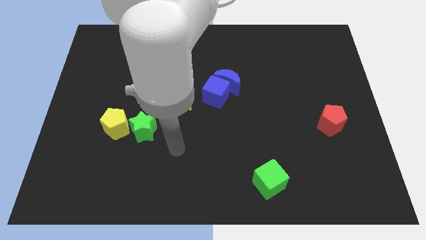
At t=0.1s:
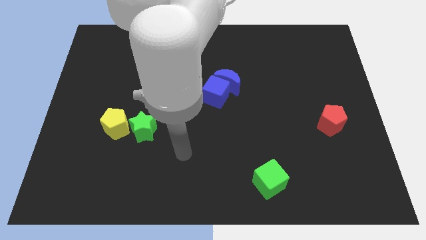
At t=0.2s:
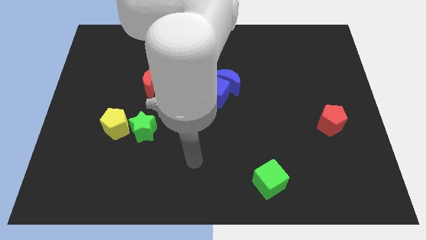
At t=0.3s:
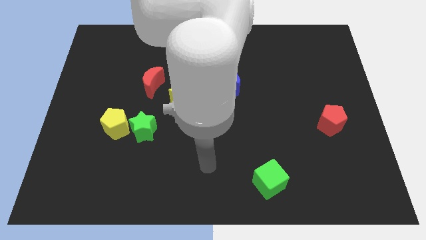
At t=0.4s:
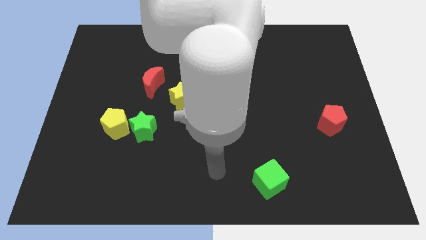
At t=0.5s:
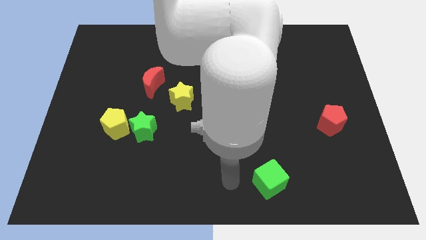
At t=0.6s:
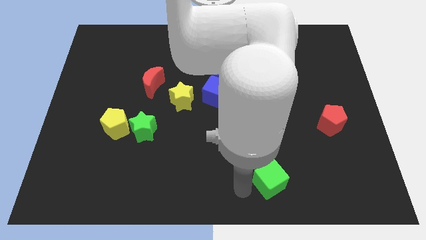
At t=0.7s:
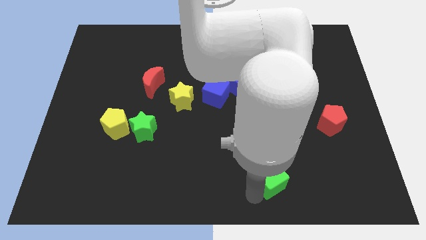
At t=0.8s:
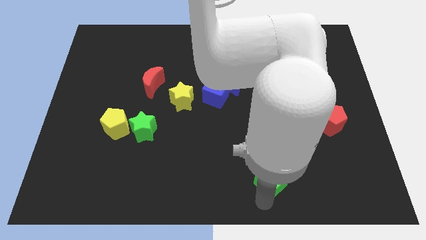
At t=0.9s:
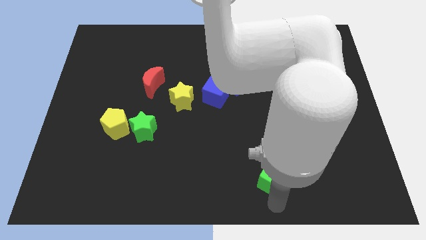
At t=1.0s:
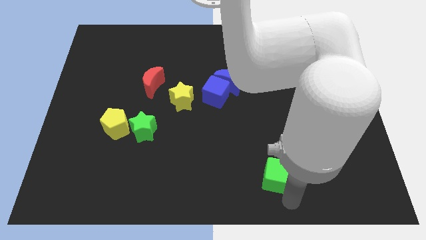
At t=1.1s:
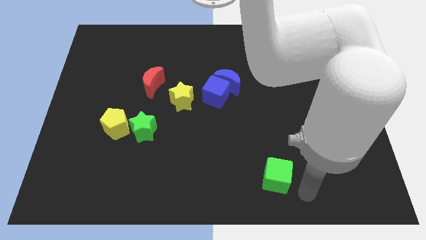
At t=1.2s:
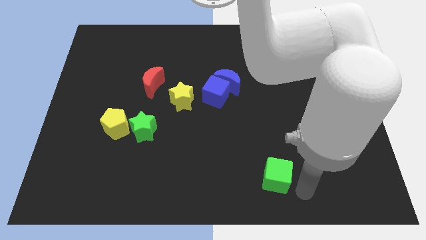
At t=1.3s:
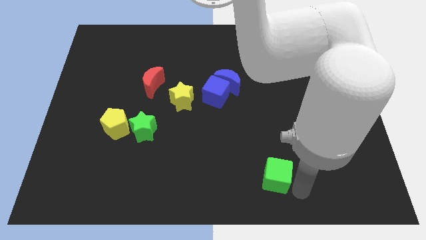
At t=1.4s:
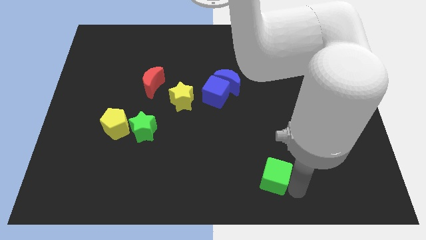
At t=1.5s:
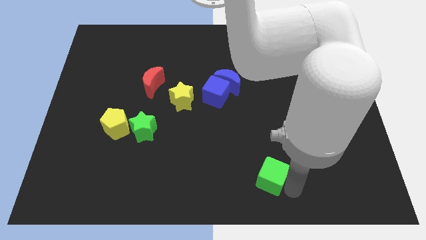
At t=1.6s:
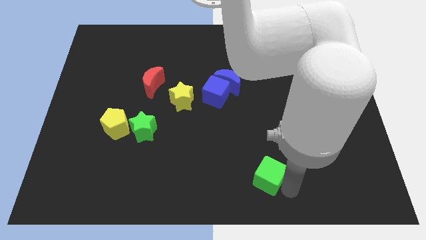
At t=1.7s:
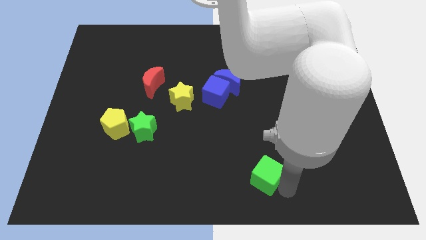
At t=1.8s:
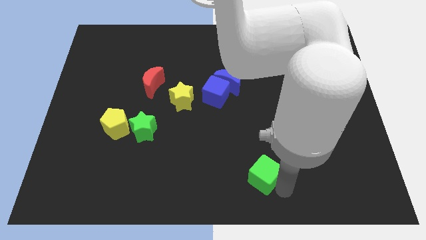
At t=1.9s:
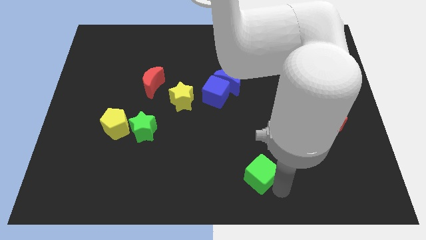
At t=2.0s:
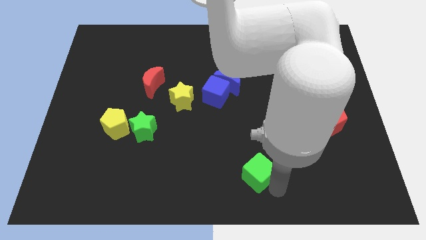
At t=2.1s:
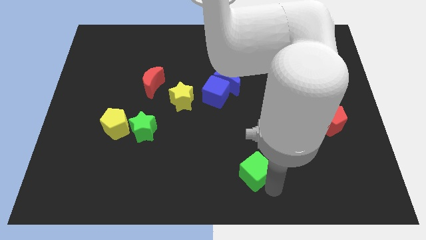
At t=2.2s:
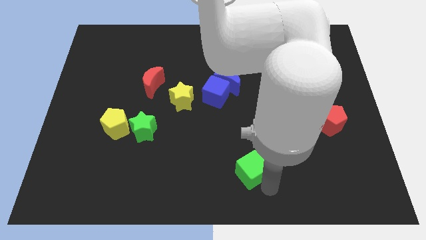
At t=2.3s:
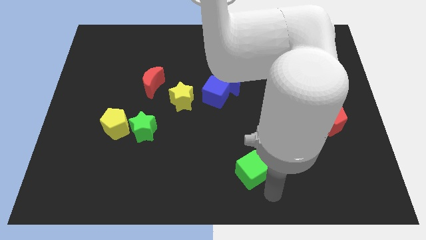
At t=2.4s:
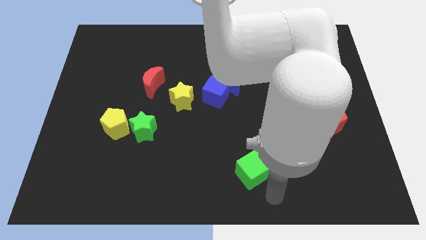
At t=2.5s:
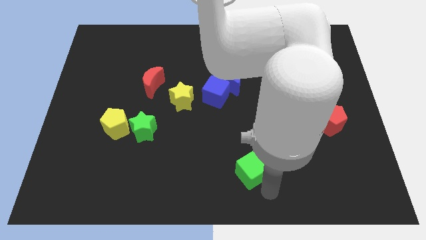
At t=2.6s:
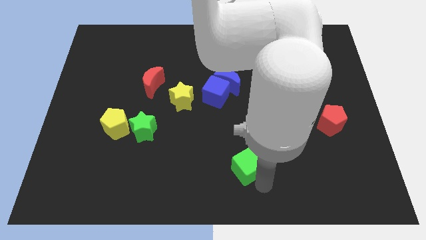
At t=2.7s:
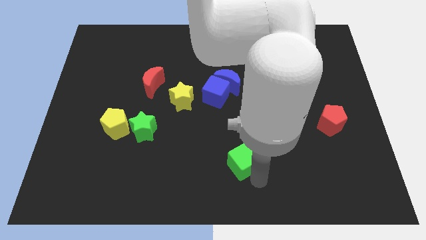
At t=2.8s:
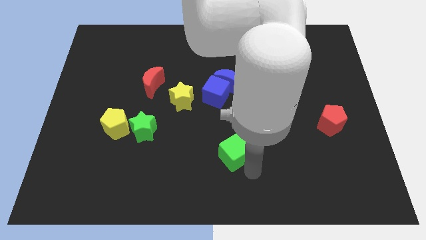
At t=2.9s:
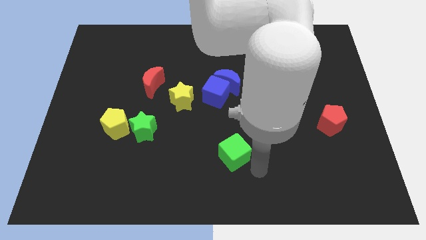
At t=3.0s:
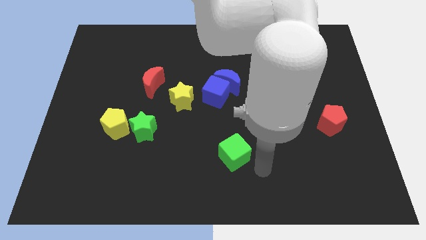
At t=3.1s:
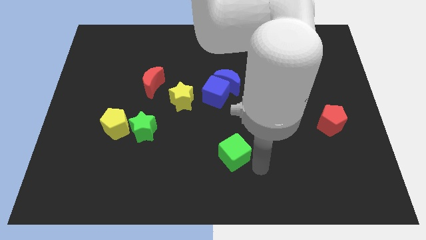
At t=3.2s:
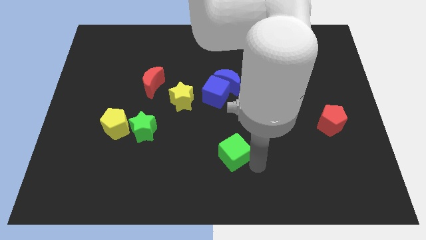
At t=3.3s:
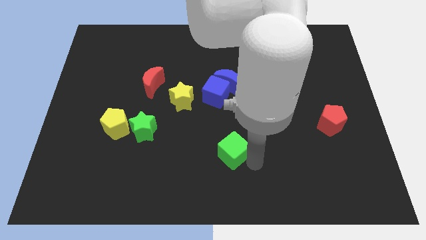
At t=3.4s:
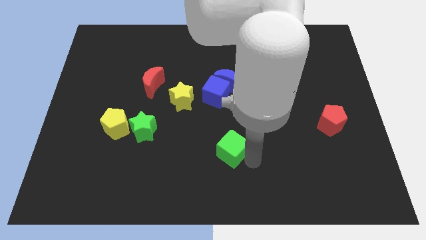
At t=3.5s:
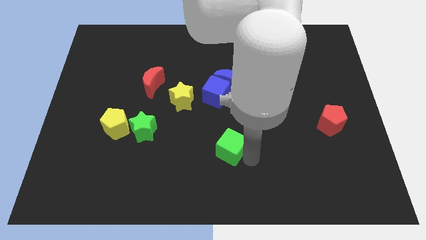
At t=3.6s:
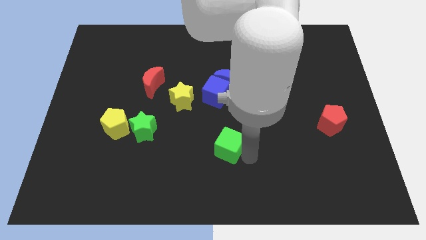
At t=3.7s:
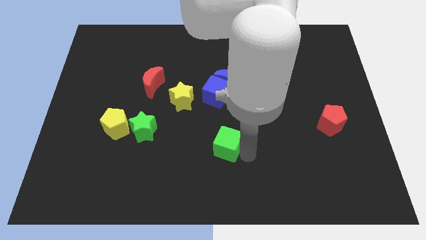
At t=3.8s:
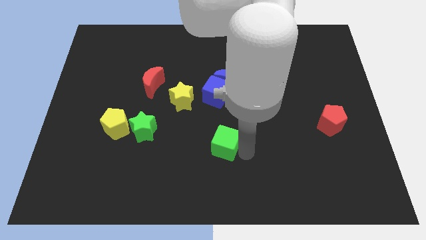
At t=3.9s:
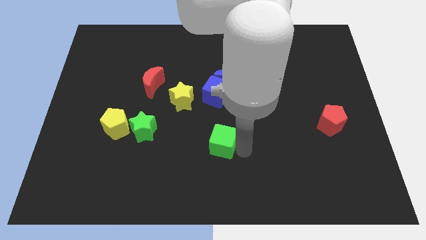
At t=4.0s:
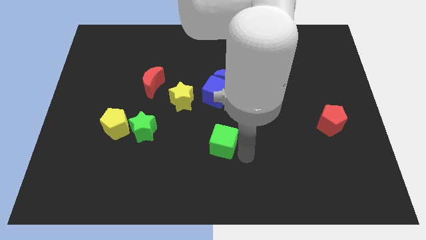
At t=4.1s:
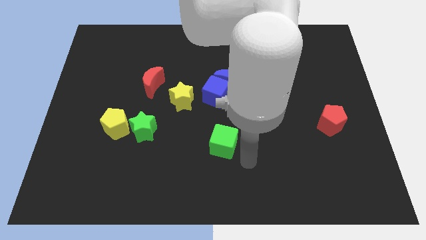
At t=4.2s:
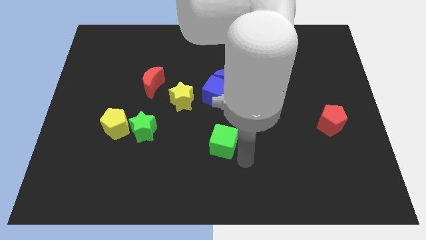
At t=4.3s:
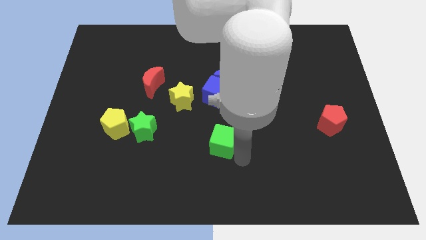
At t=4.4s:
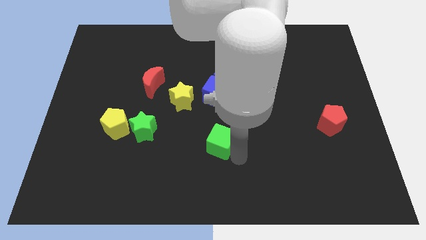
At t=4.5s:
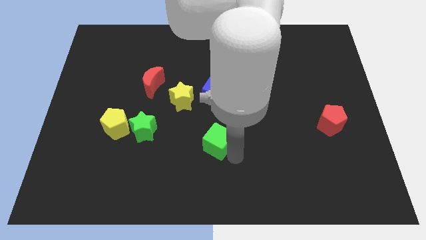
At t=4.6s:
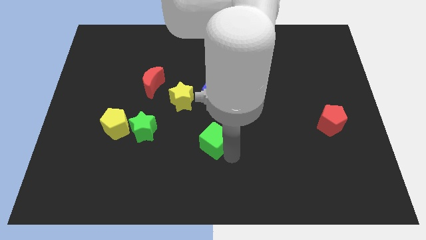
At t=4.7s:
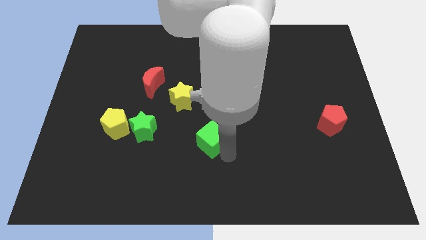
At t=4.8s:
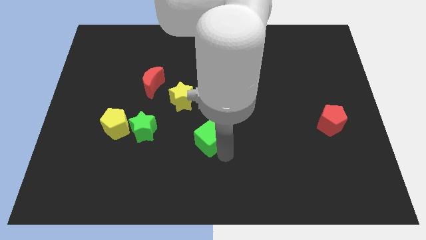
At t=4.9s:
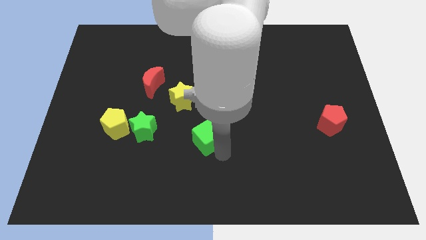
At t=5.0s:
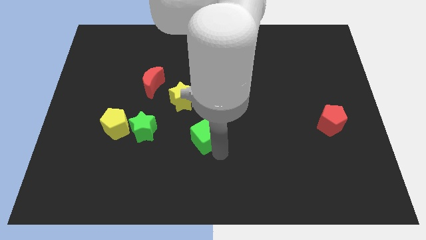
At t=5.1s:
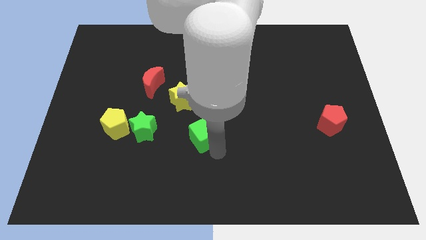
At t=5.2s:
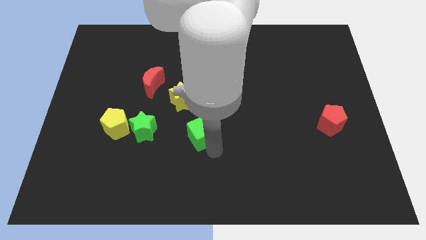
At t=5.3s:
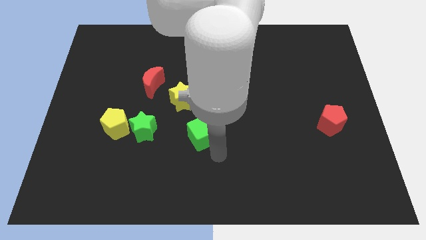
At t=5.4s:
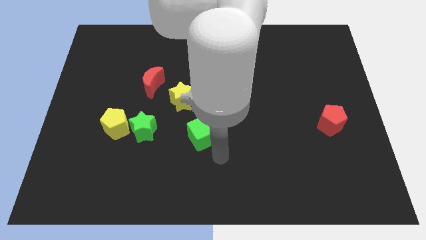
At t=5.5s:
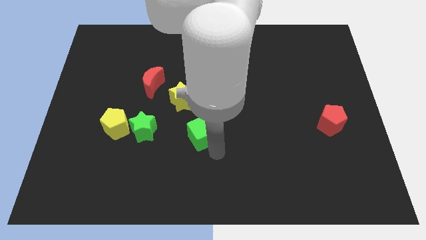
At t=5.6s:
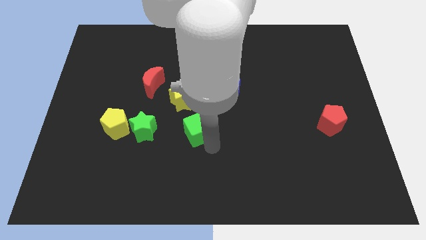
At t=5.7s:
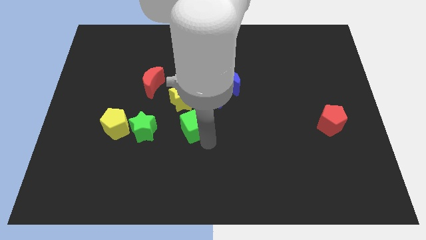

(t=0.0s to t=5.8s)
slide the green cube upwards and then left

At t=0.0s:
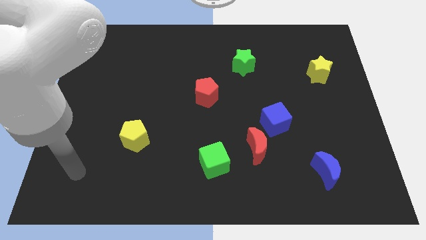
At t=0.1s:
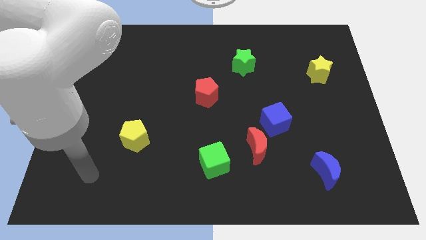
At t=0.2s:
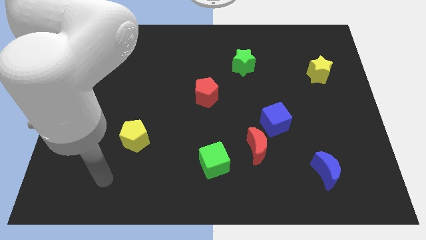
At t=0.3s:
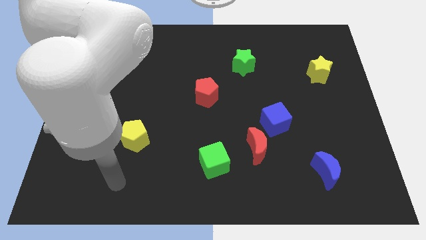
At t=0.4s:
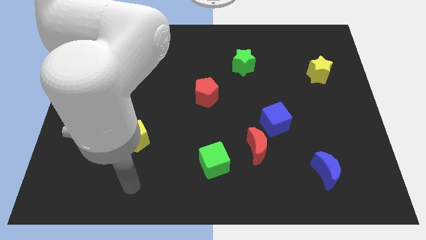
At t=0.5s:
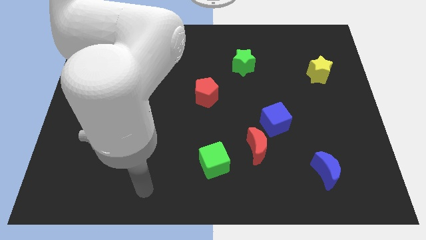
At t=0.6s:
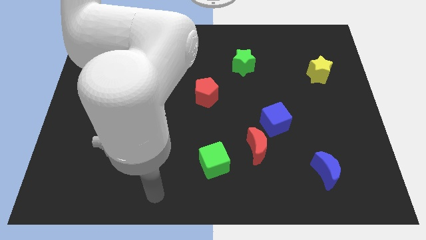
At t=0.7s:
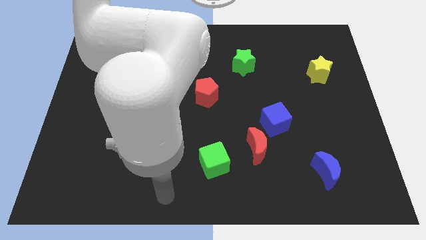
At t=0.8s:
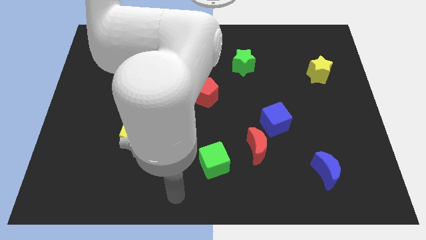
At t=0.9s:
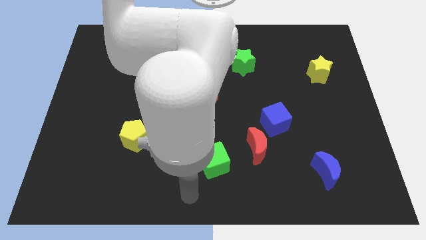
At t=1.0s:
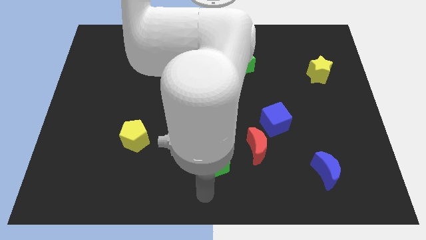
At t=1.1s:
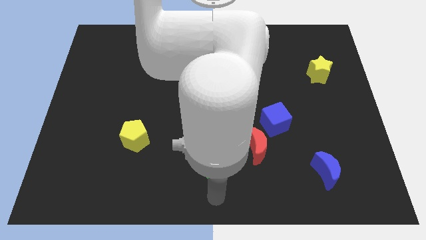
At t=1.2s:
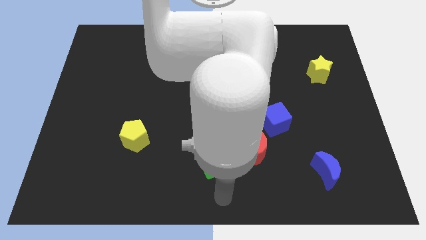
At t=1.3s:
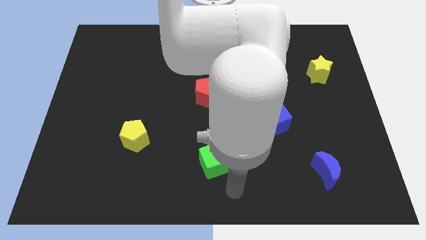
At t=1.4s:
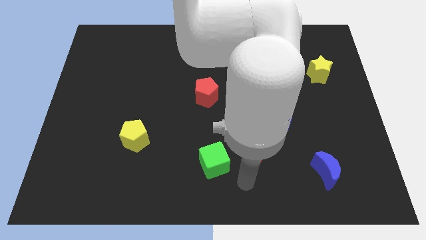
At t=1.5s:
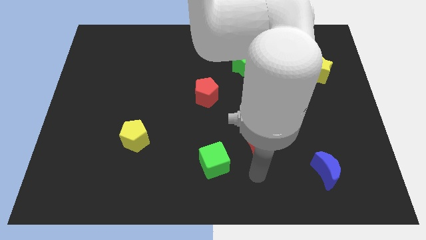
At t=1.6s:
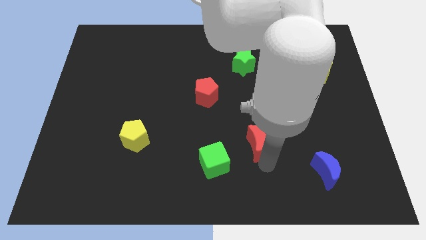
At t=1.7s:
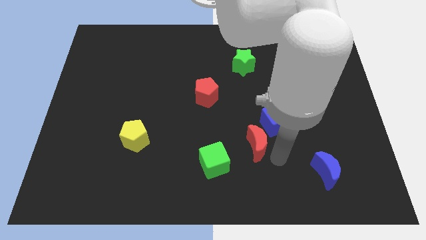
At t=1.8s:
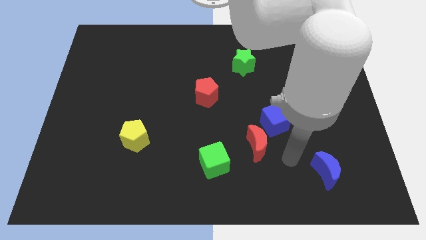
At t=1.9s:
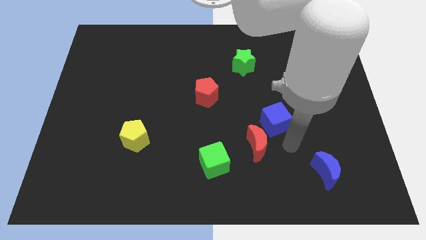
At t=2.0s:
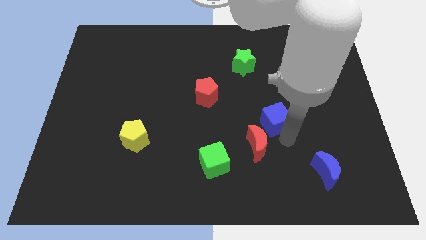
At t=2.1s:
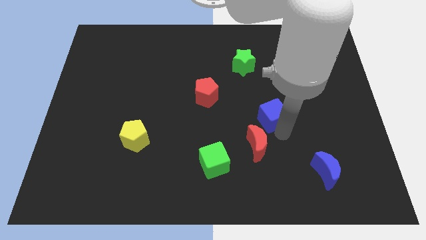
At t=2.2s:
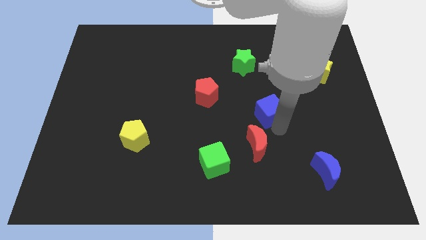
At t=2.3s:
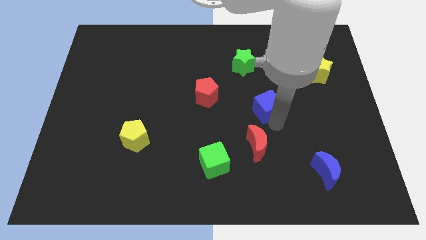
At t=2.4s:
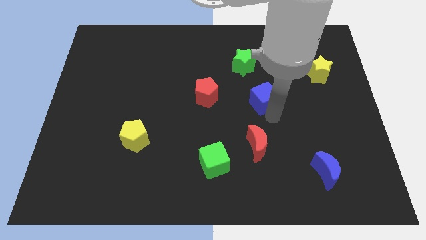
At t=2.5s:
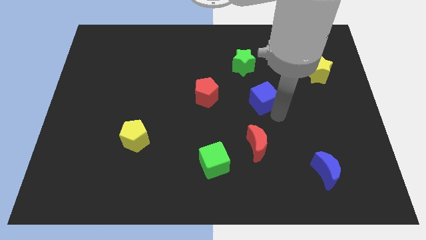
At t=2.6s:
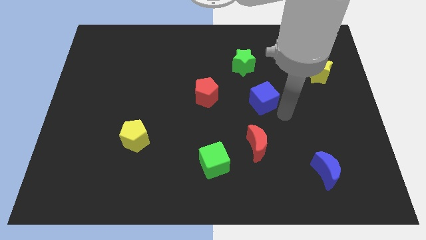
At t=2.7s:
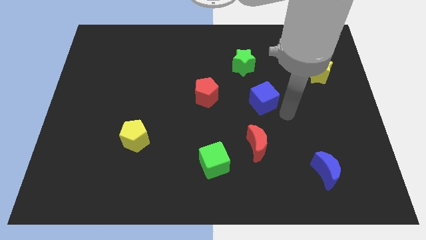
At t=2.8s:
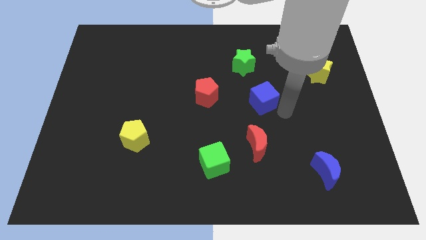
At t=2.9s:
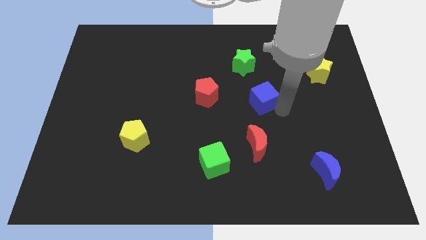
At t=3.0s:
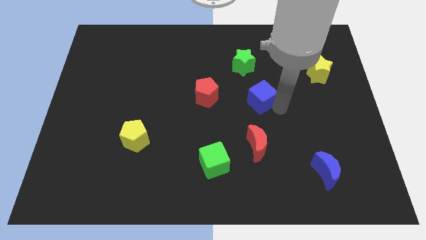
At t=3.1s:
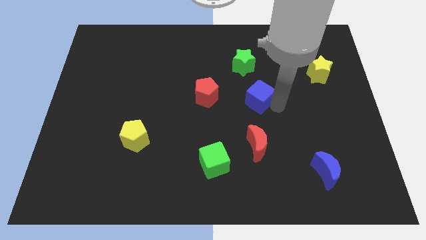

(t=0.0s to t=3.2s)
slightly move the blue cube up and left diagonally
